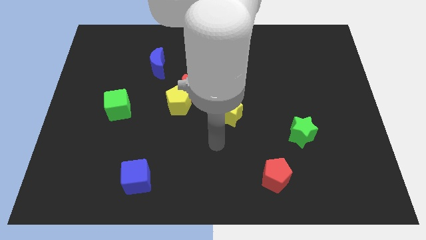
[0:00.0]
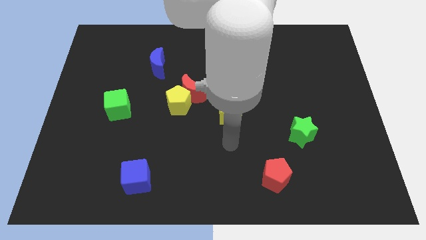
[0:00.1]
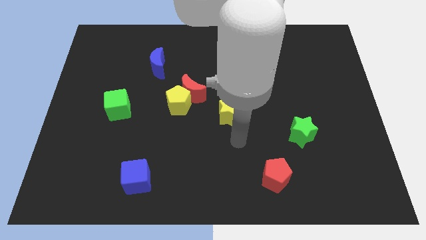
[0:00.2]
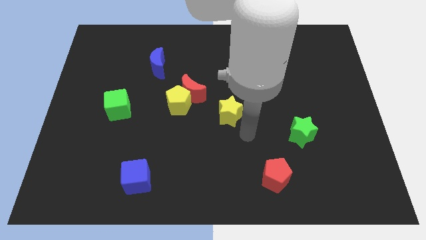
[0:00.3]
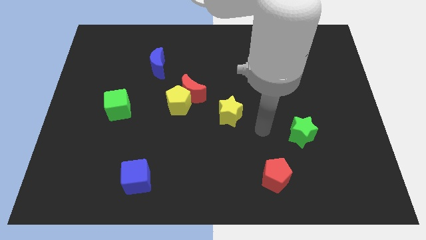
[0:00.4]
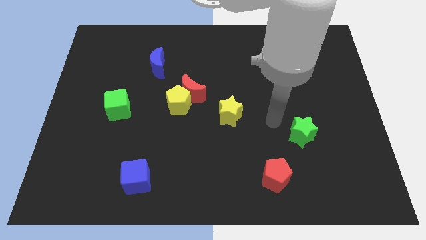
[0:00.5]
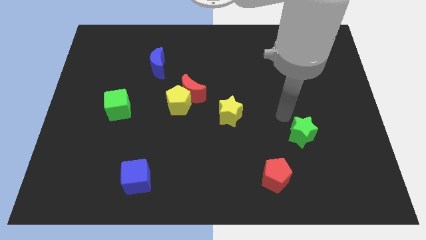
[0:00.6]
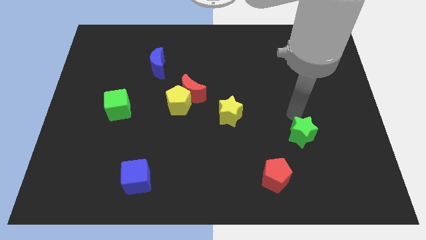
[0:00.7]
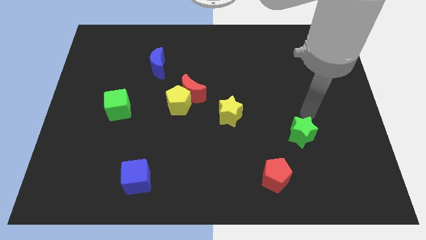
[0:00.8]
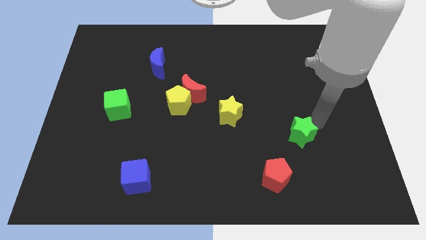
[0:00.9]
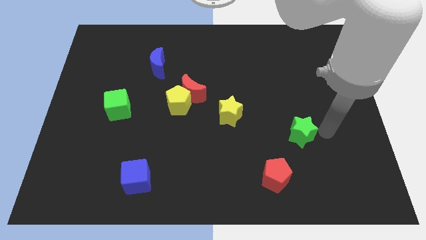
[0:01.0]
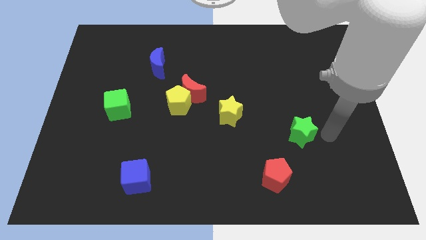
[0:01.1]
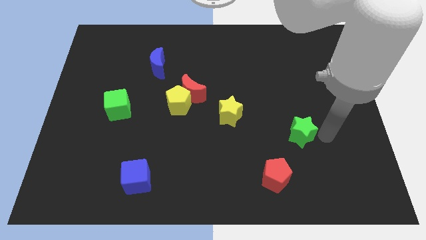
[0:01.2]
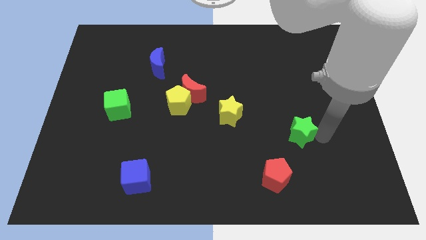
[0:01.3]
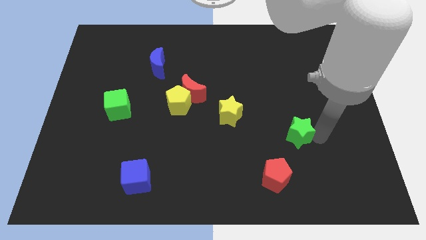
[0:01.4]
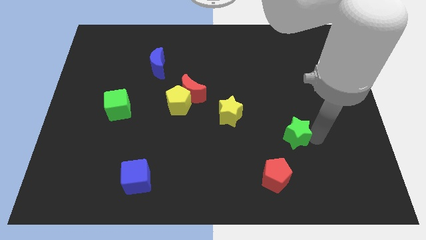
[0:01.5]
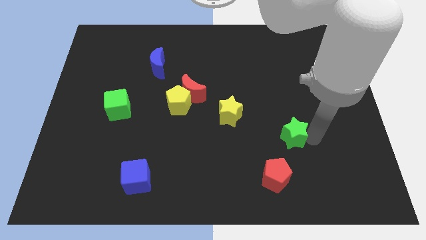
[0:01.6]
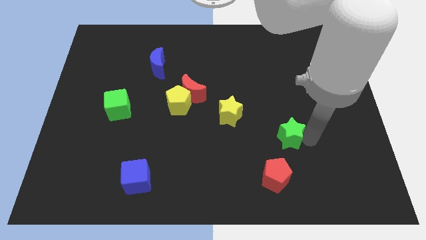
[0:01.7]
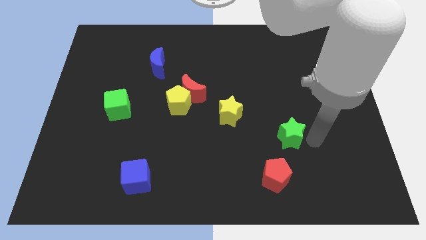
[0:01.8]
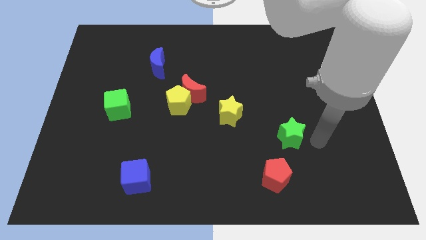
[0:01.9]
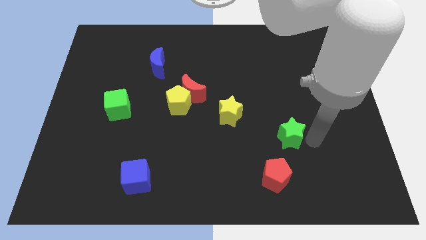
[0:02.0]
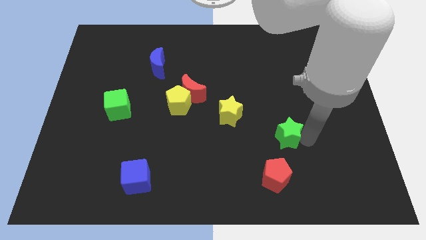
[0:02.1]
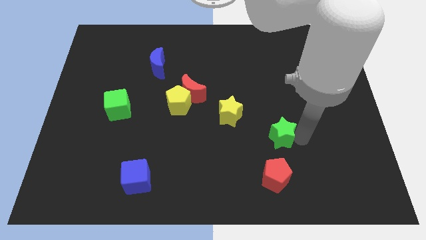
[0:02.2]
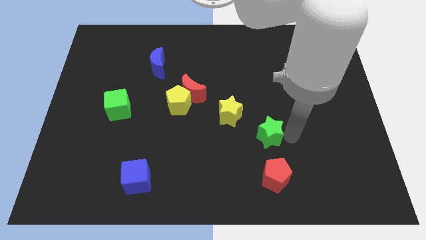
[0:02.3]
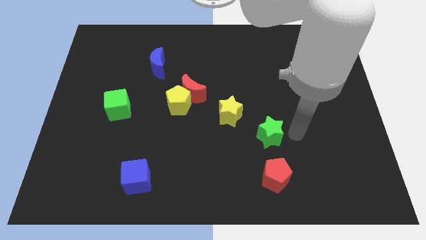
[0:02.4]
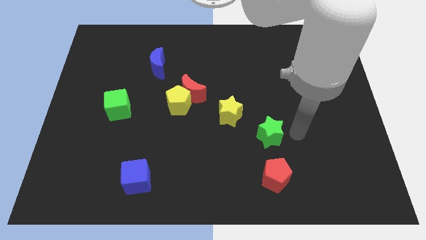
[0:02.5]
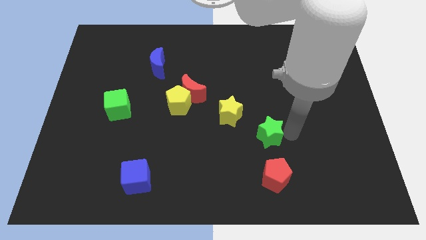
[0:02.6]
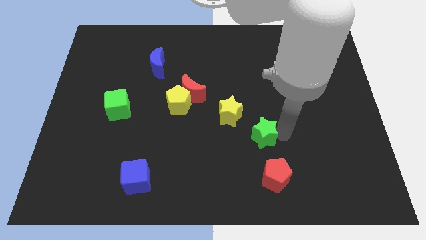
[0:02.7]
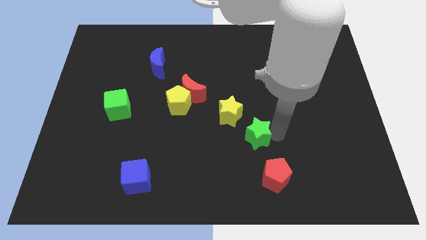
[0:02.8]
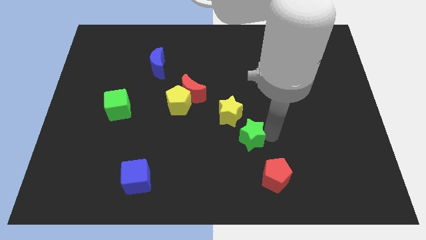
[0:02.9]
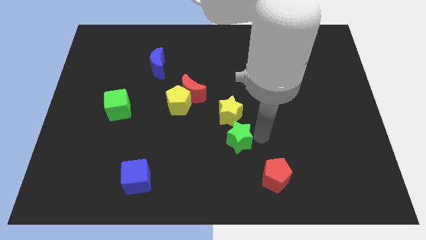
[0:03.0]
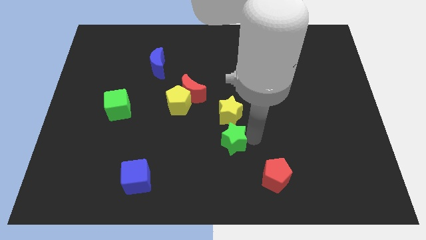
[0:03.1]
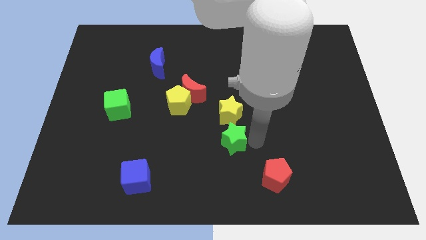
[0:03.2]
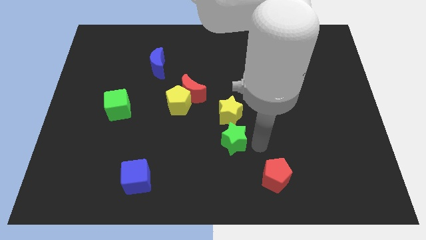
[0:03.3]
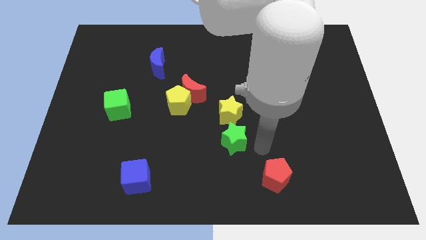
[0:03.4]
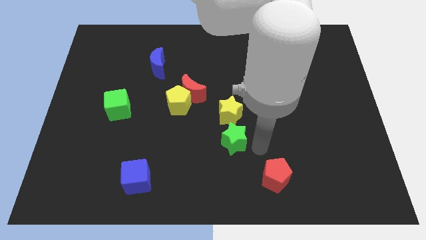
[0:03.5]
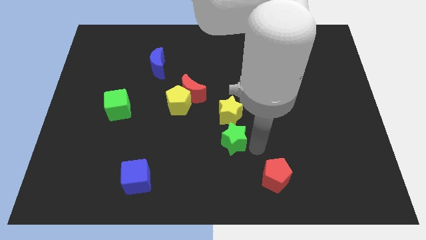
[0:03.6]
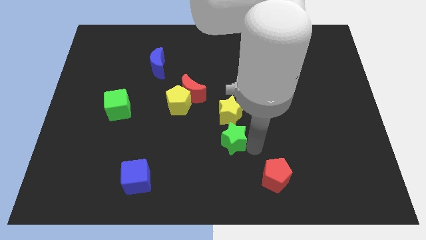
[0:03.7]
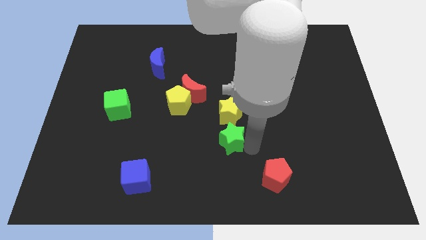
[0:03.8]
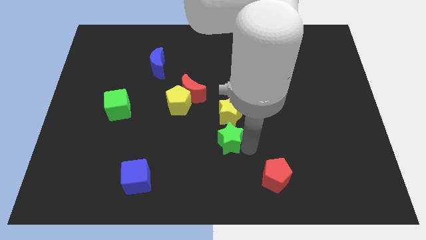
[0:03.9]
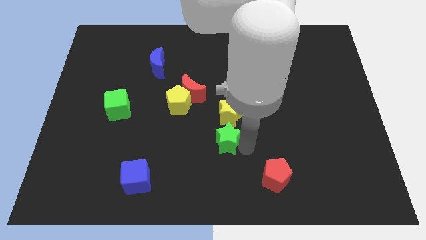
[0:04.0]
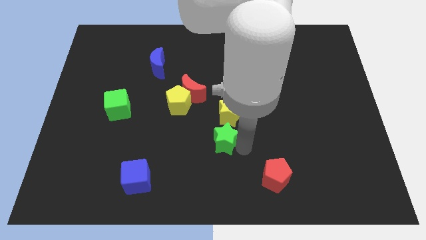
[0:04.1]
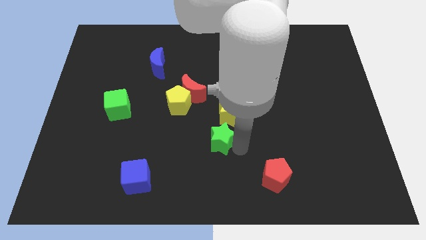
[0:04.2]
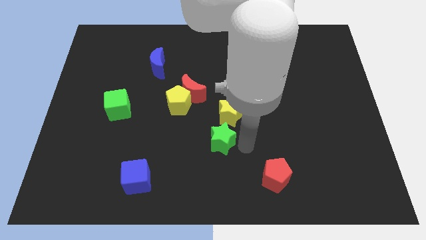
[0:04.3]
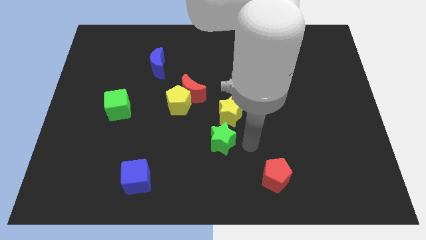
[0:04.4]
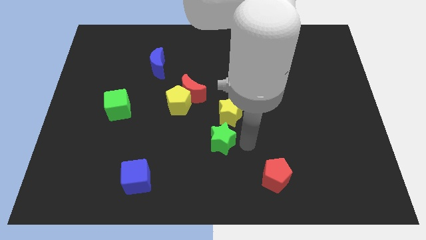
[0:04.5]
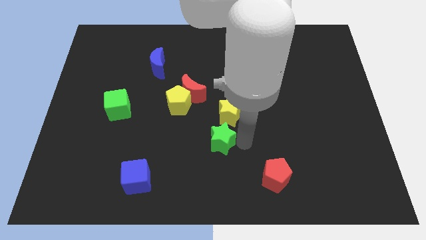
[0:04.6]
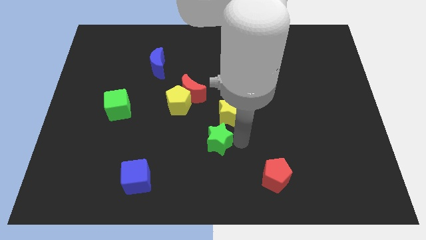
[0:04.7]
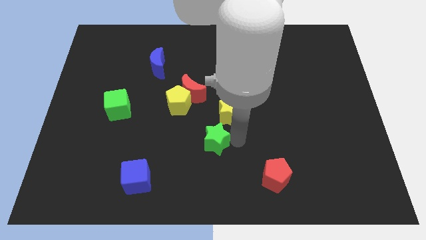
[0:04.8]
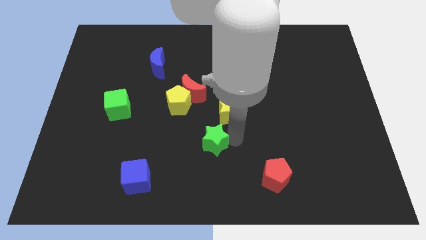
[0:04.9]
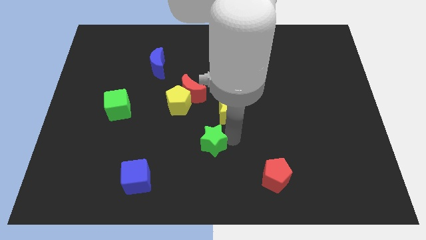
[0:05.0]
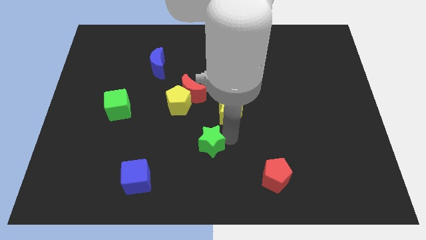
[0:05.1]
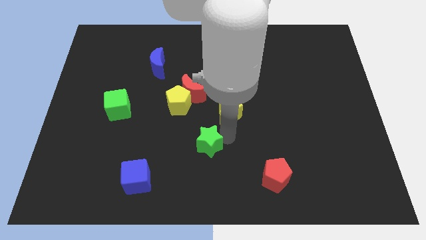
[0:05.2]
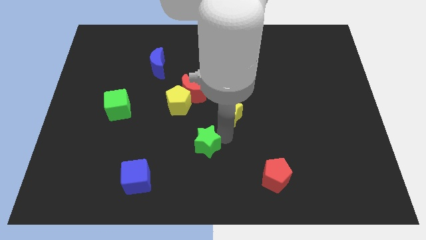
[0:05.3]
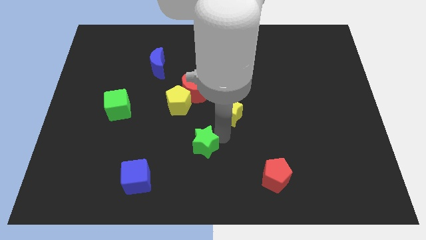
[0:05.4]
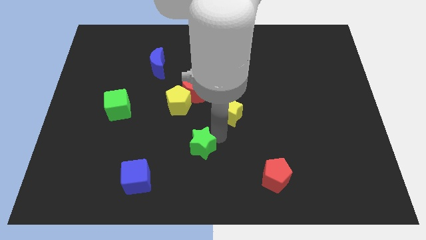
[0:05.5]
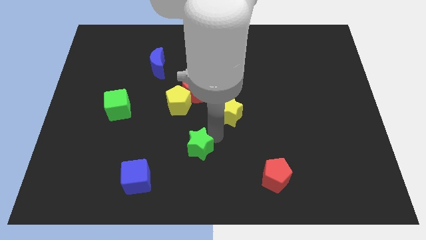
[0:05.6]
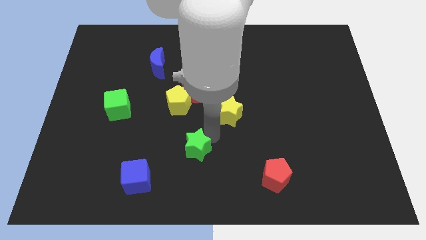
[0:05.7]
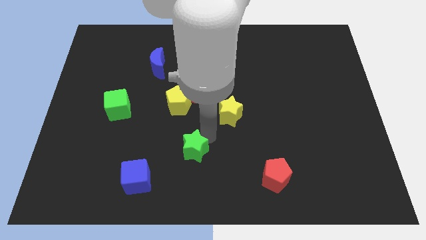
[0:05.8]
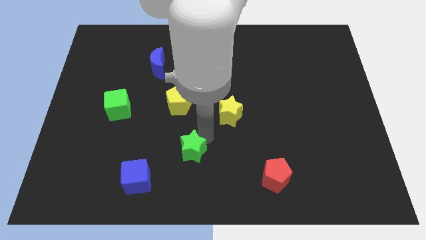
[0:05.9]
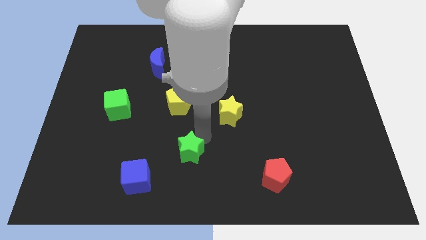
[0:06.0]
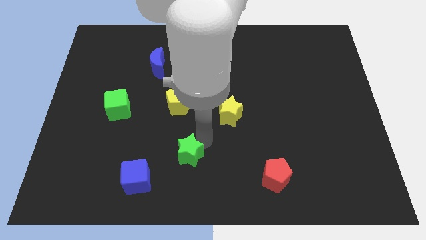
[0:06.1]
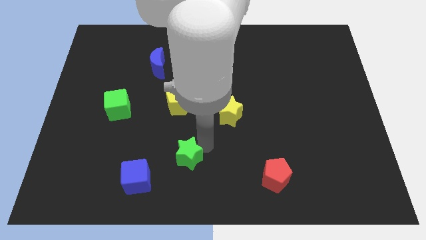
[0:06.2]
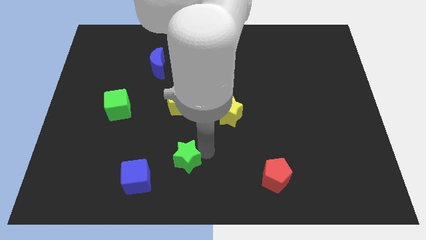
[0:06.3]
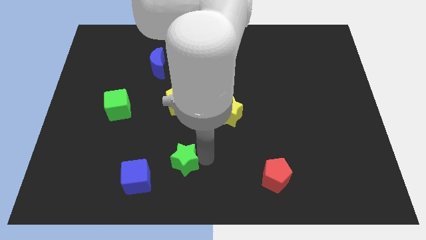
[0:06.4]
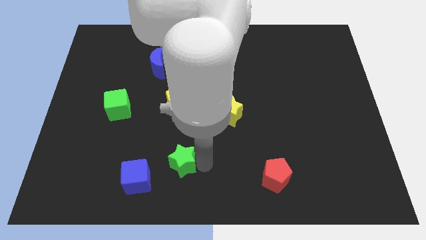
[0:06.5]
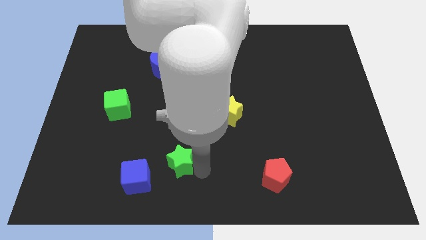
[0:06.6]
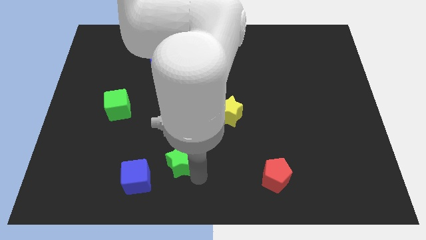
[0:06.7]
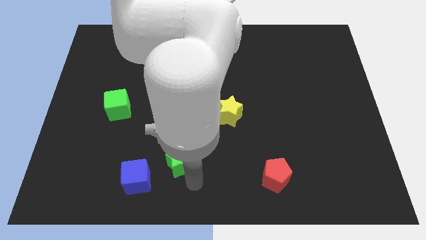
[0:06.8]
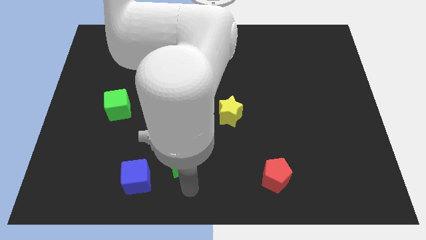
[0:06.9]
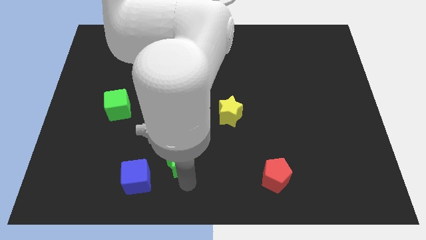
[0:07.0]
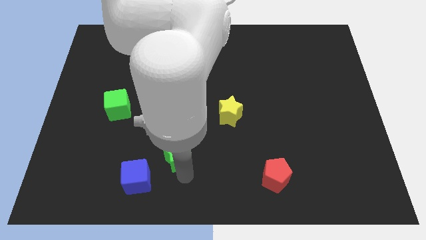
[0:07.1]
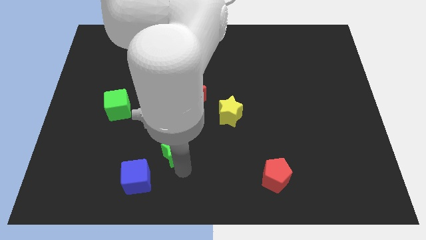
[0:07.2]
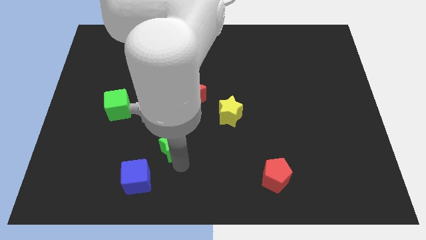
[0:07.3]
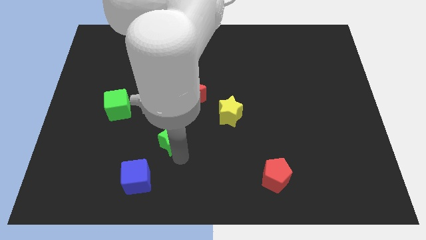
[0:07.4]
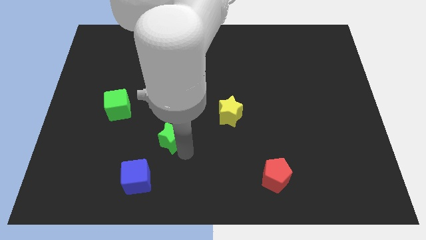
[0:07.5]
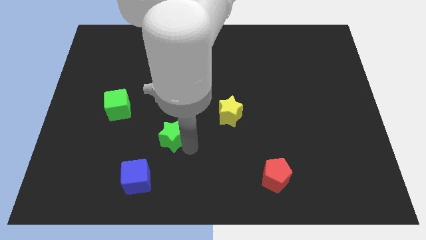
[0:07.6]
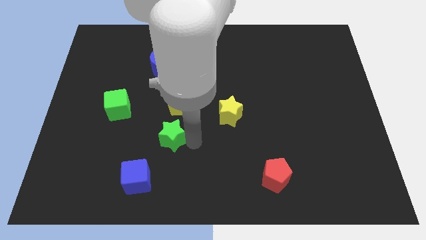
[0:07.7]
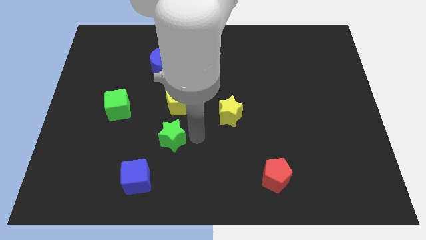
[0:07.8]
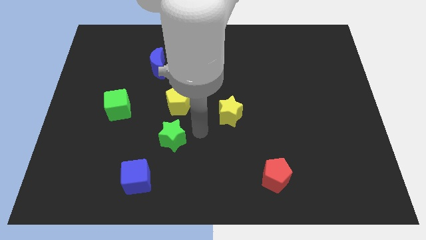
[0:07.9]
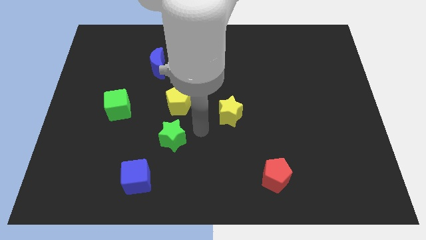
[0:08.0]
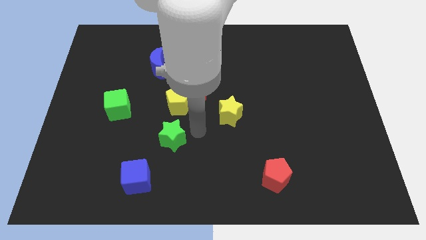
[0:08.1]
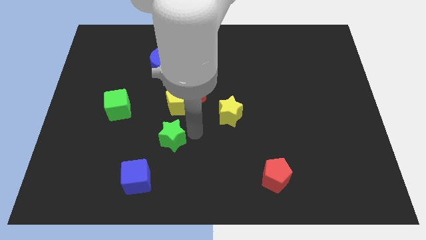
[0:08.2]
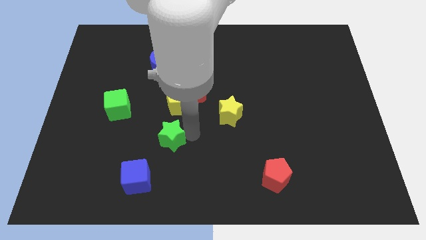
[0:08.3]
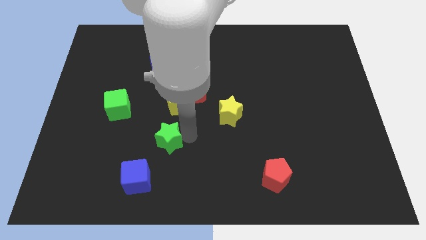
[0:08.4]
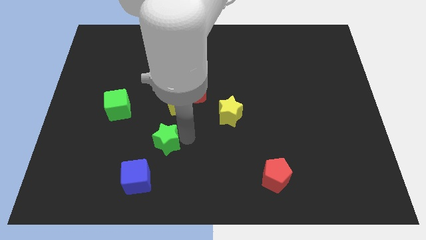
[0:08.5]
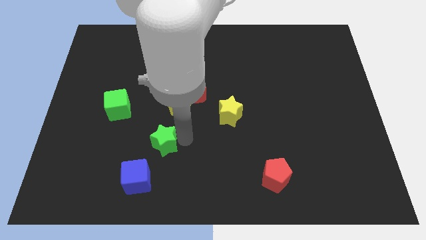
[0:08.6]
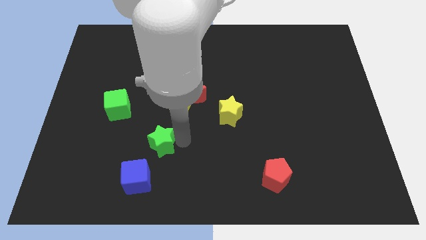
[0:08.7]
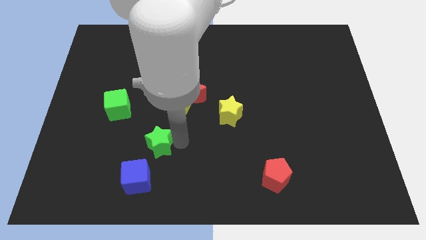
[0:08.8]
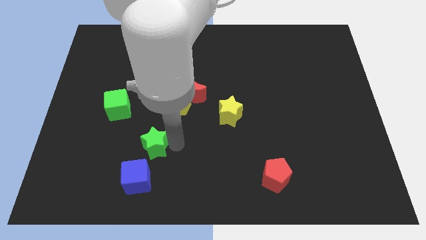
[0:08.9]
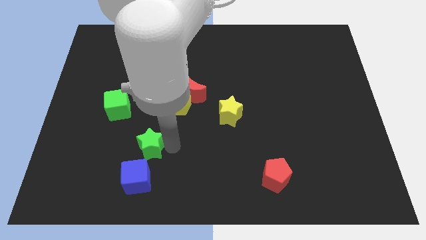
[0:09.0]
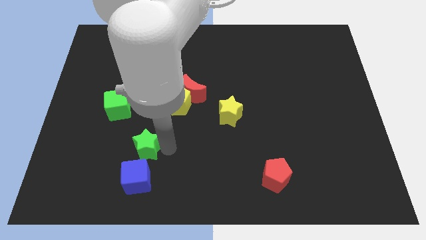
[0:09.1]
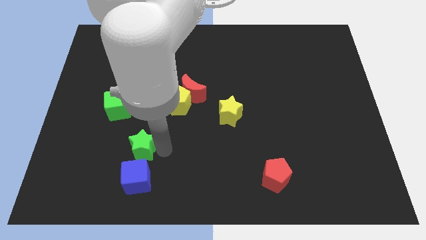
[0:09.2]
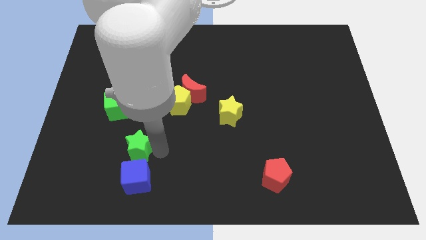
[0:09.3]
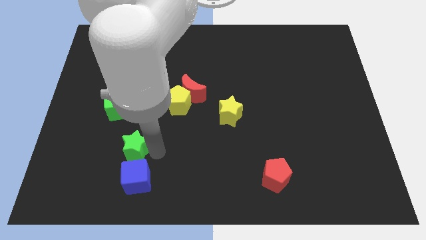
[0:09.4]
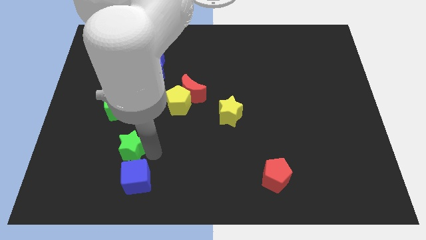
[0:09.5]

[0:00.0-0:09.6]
put the green star below the green cube
